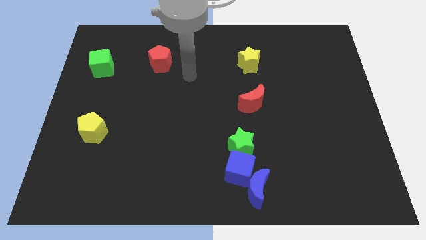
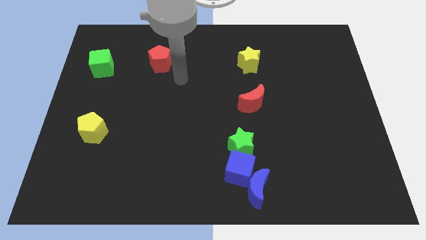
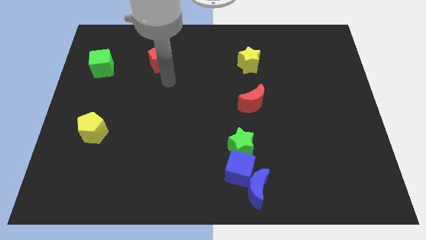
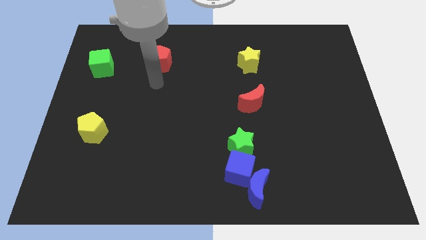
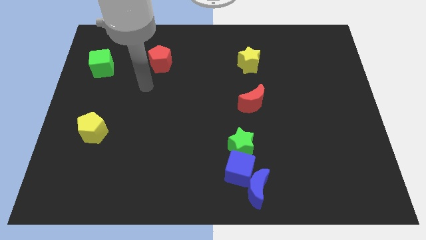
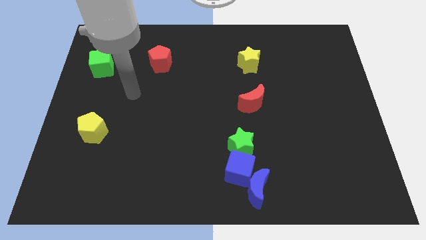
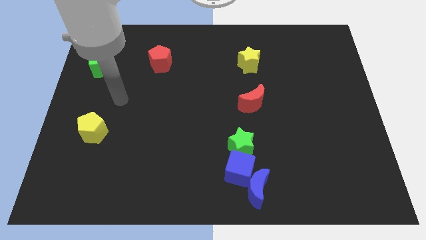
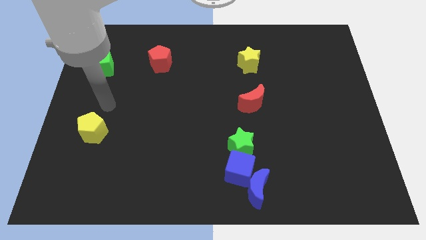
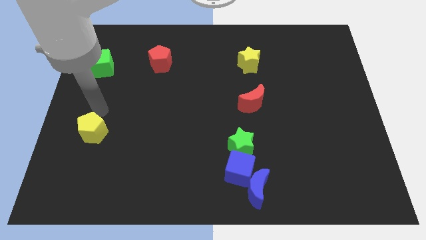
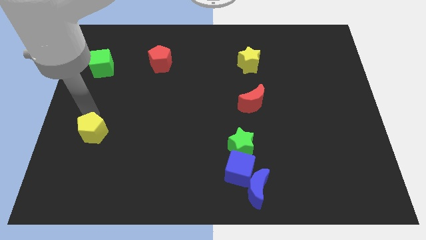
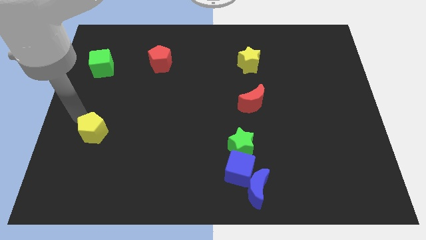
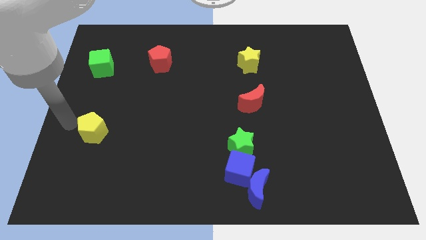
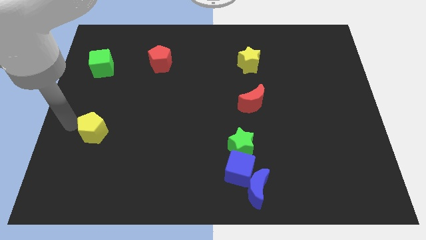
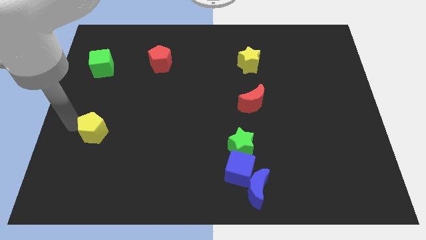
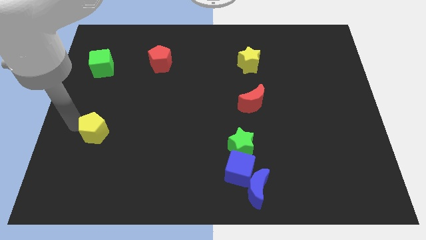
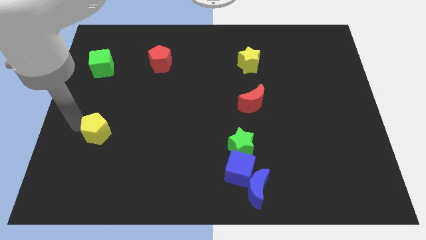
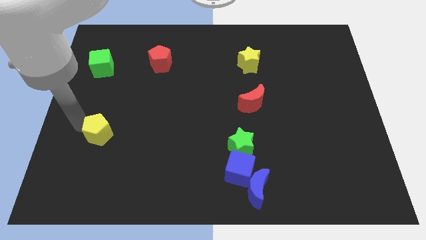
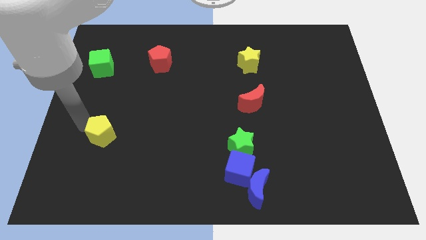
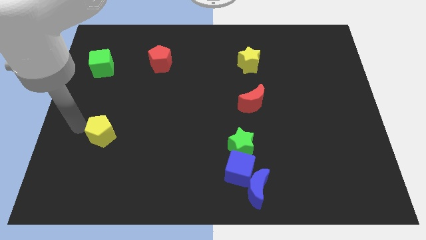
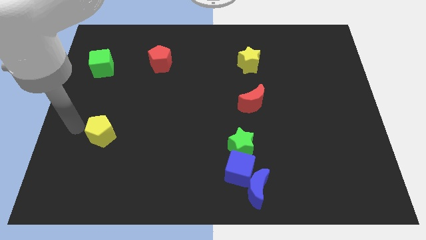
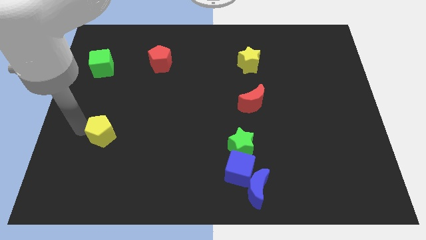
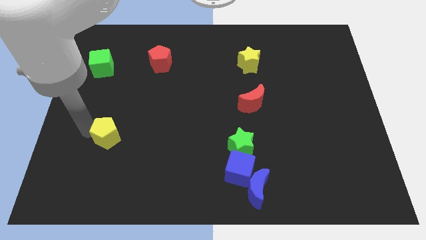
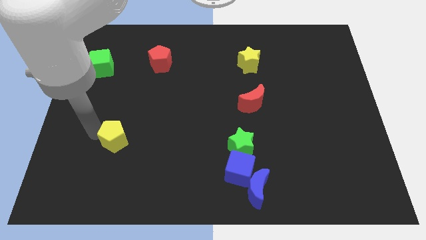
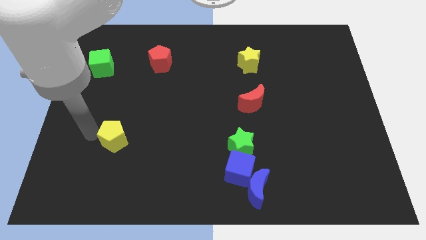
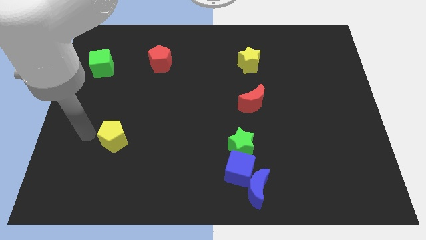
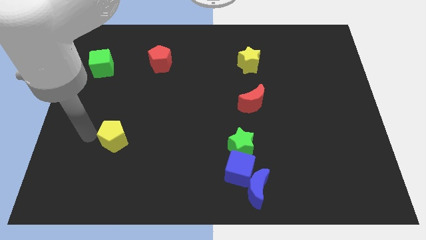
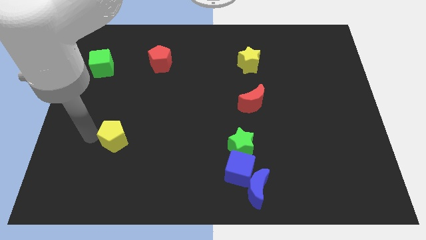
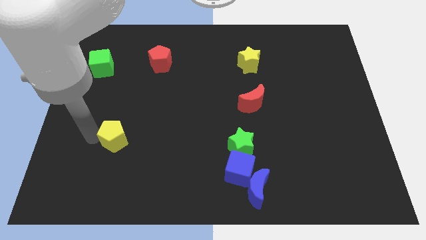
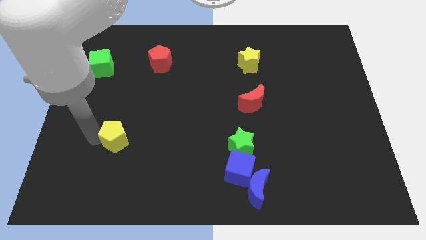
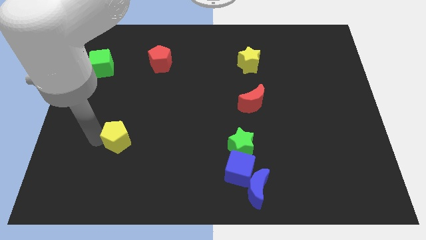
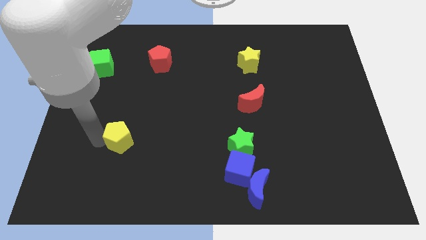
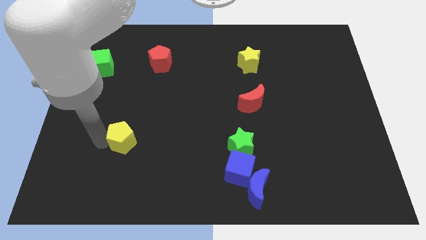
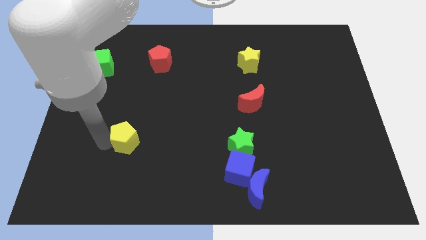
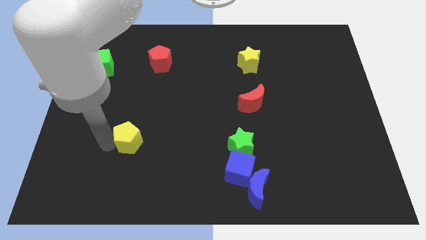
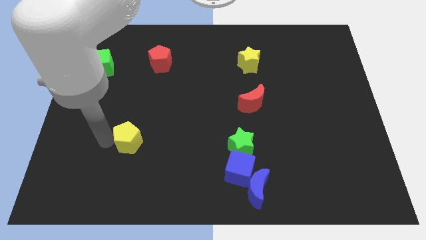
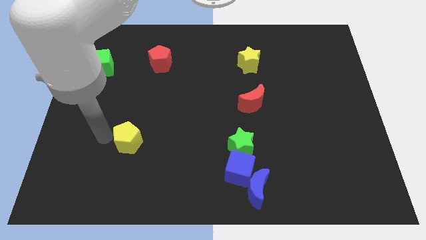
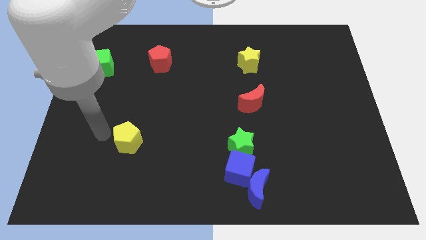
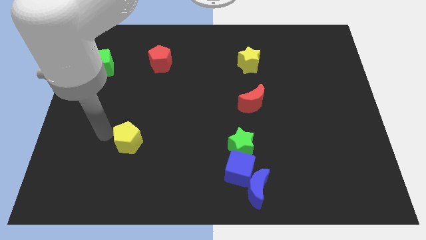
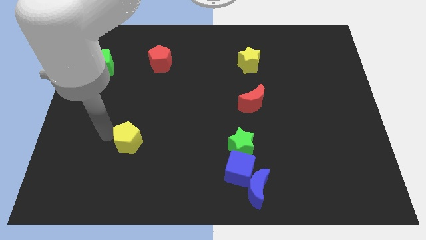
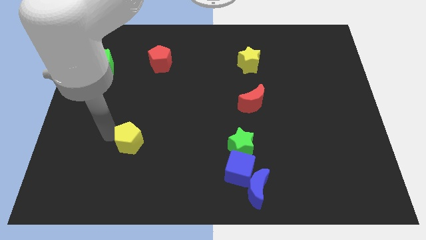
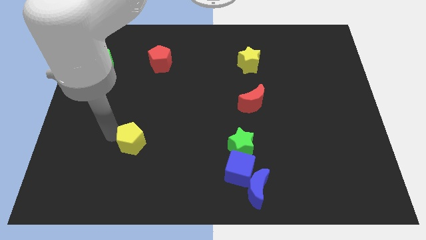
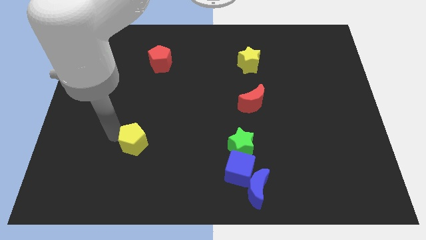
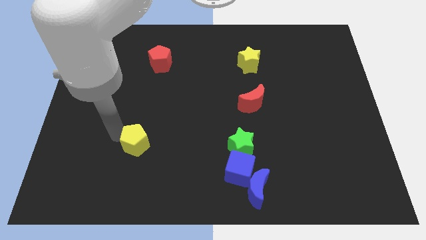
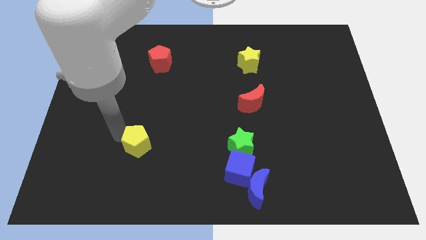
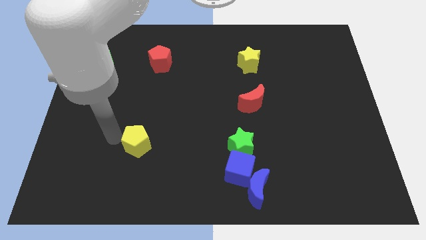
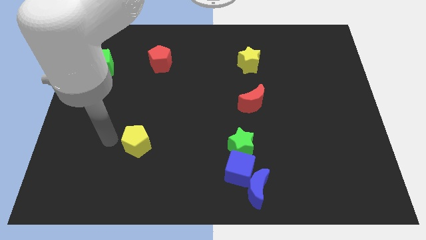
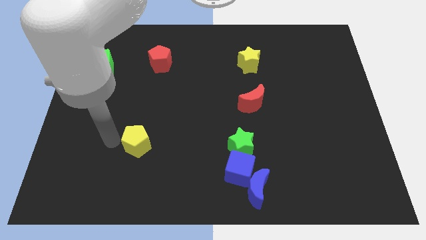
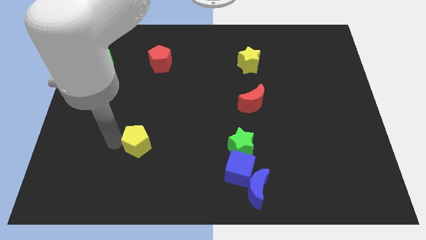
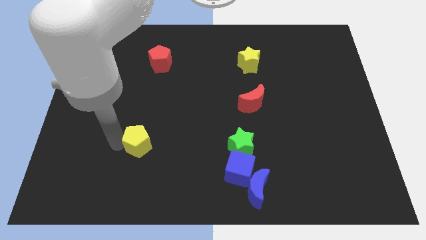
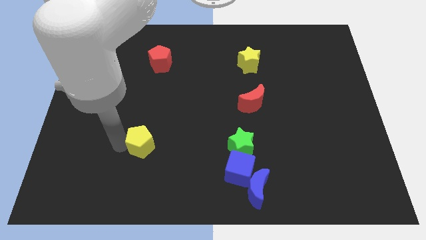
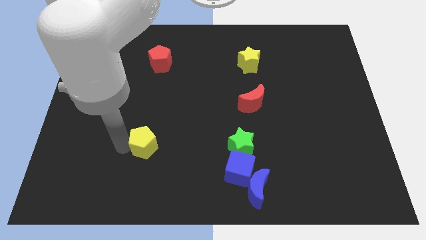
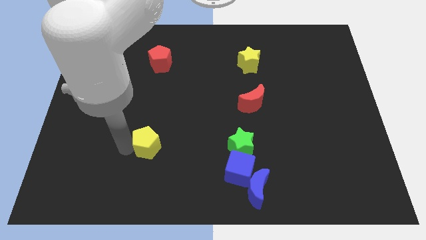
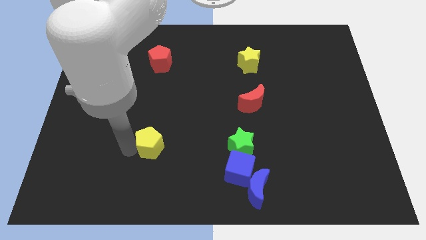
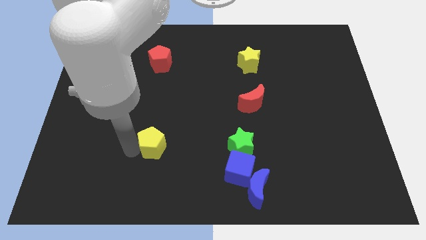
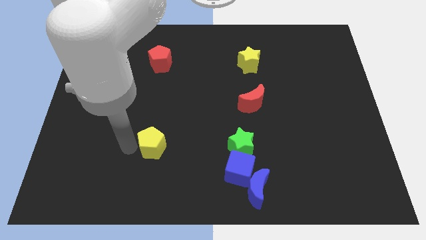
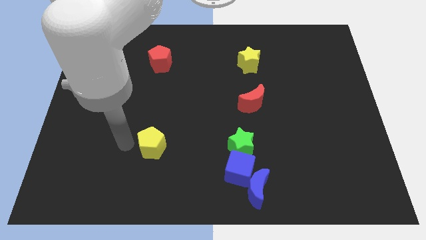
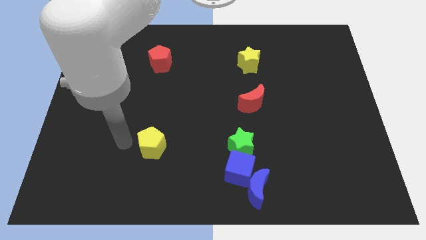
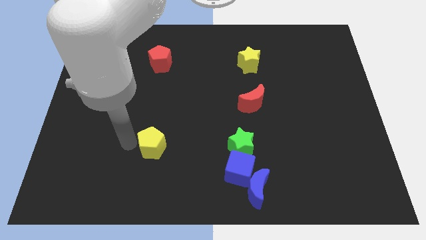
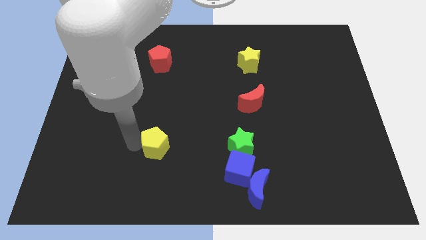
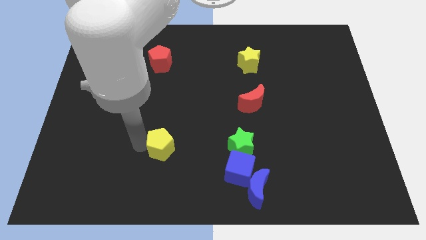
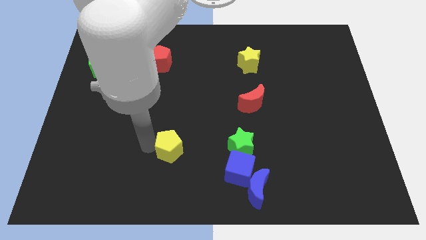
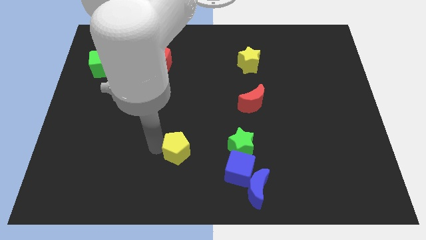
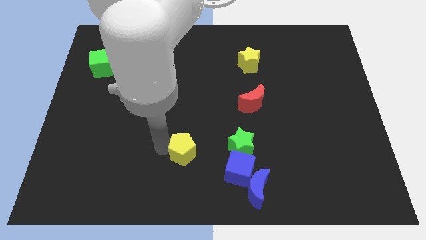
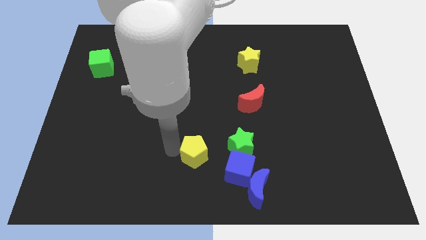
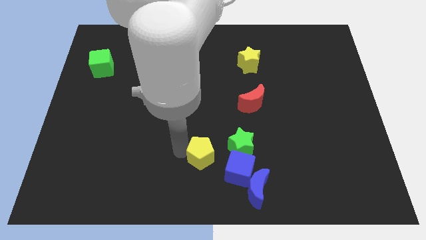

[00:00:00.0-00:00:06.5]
put the yellow pentagon to the bottom left side of the green star

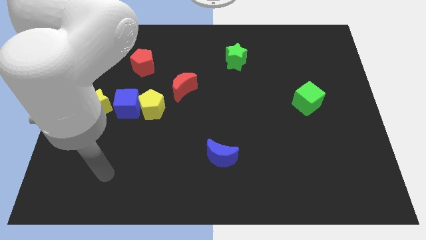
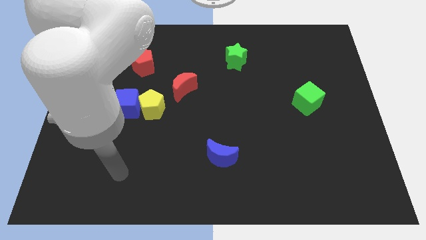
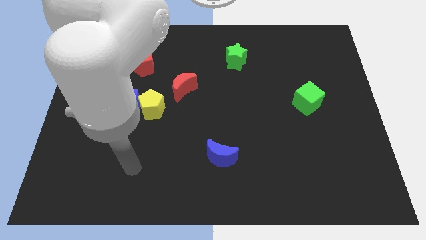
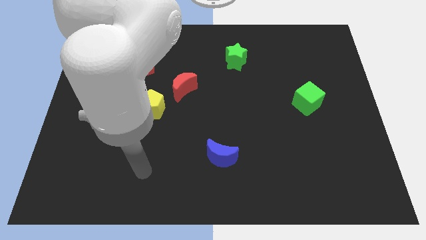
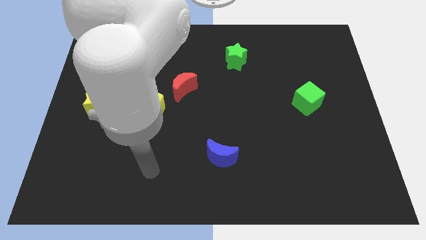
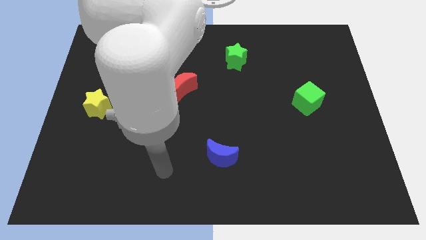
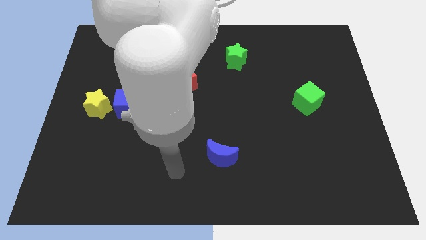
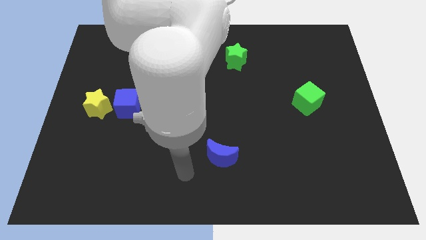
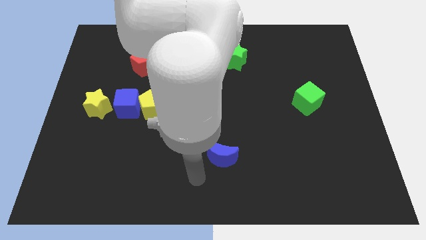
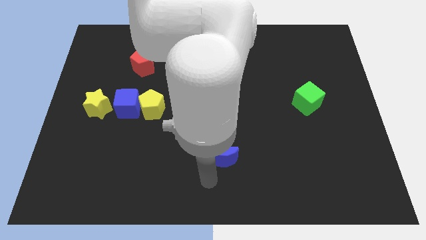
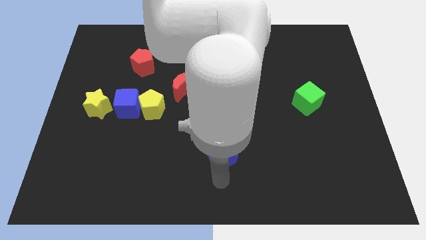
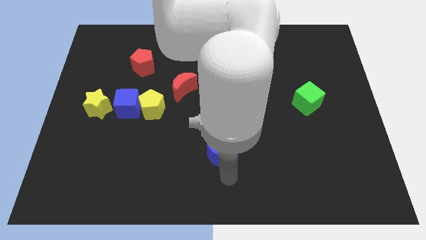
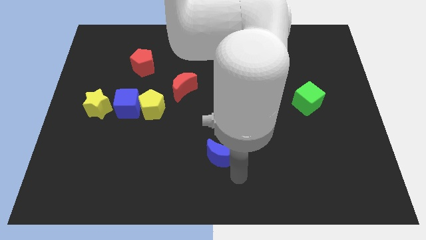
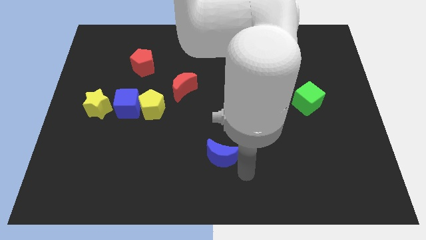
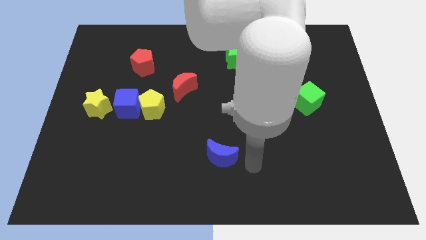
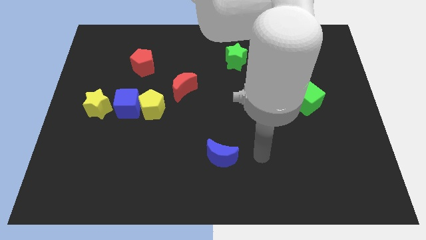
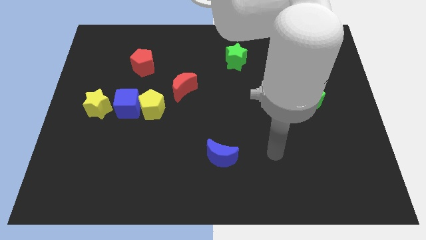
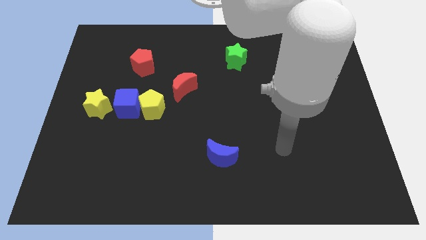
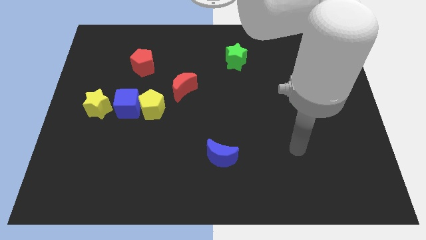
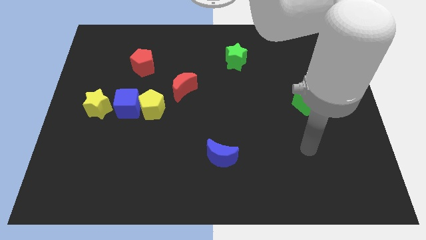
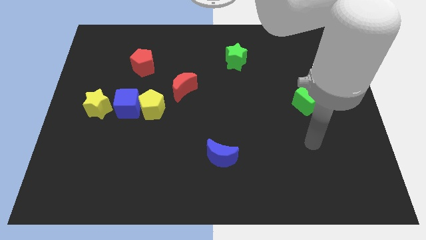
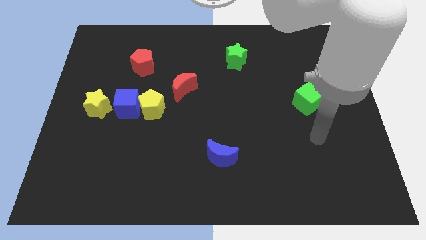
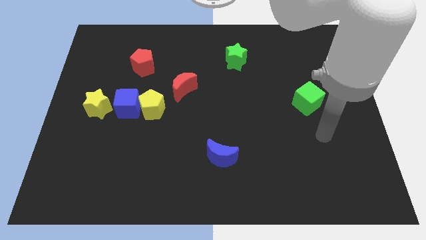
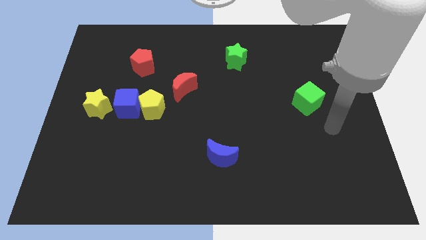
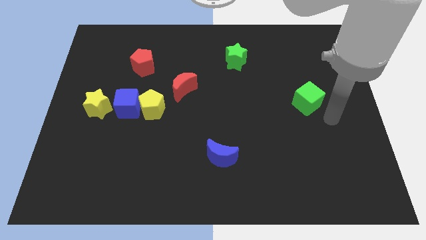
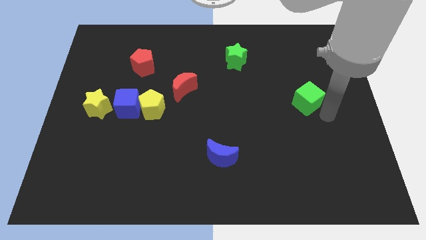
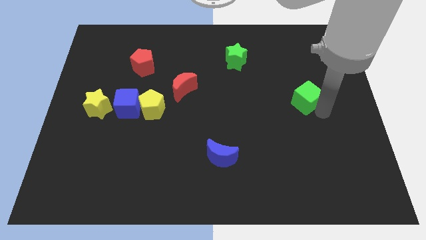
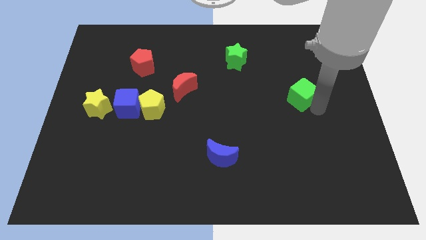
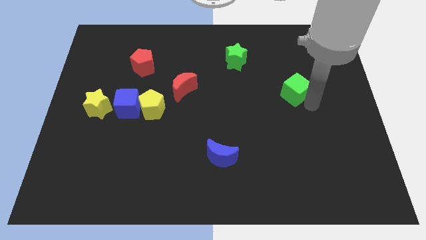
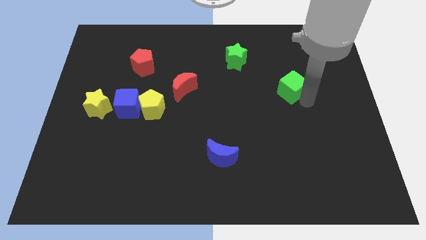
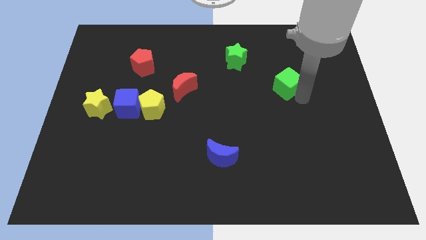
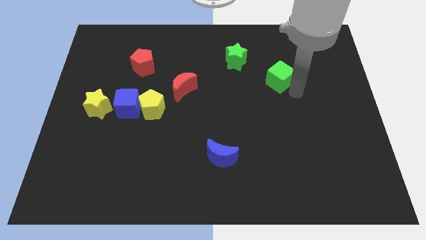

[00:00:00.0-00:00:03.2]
slide the green cube to the bottom right of the green star
